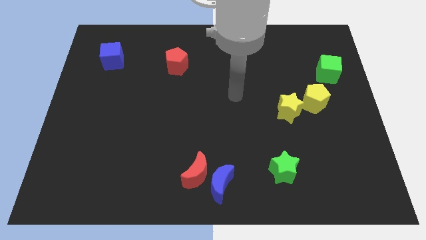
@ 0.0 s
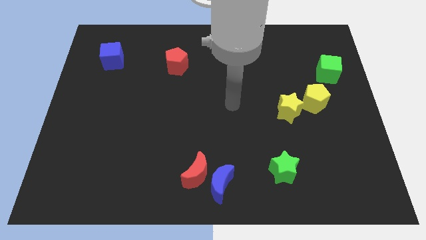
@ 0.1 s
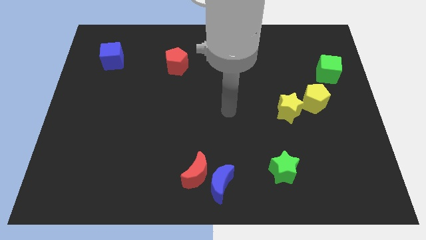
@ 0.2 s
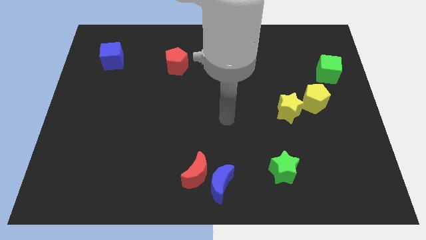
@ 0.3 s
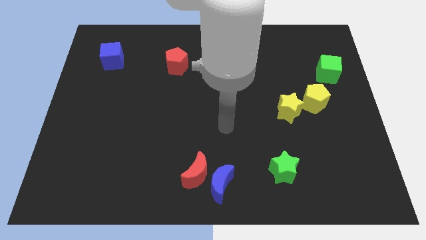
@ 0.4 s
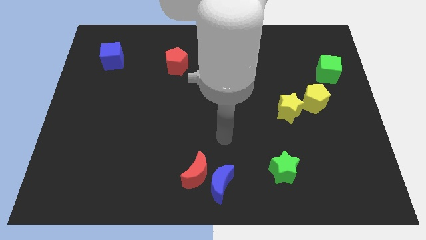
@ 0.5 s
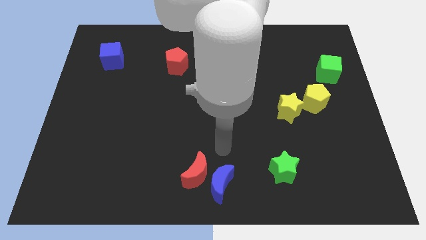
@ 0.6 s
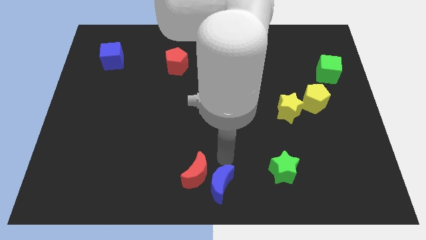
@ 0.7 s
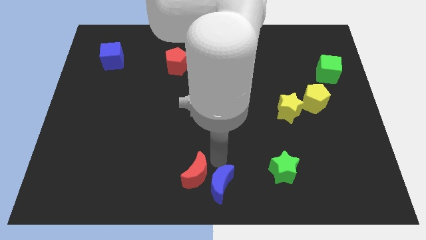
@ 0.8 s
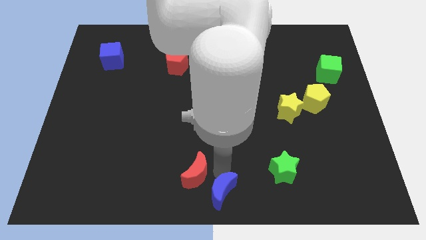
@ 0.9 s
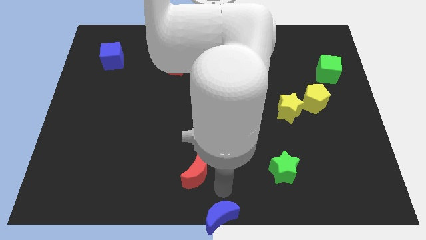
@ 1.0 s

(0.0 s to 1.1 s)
pull the red moon apart from the blue moon

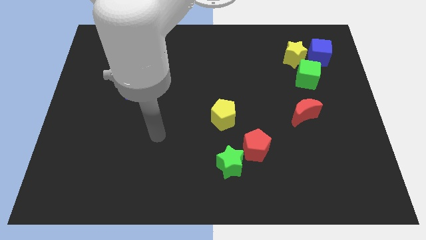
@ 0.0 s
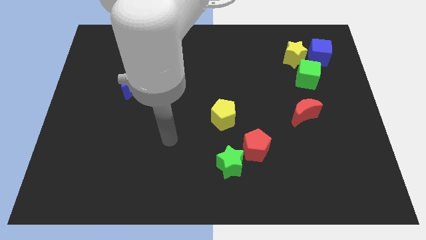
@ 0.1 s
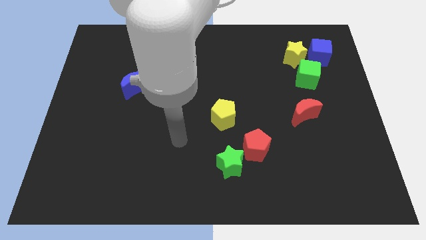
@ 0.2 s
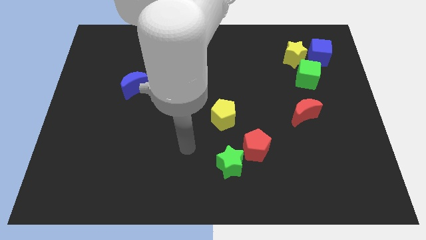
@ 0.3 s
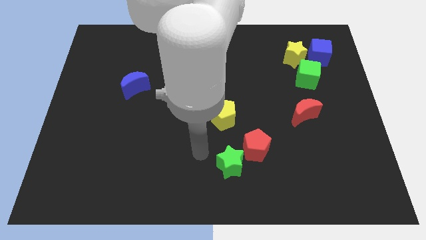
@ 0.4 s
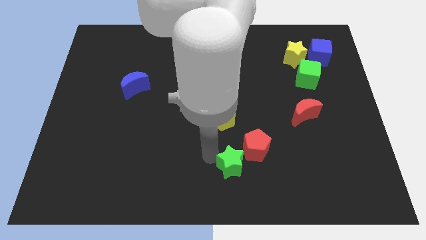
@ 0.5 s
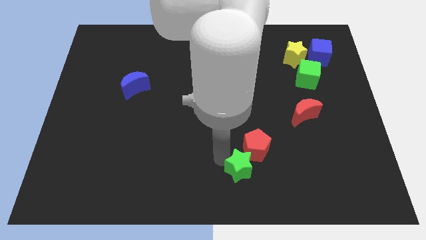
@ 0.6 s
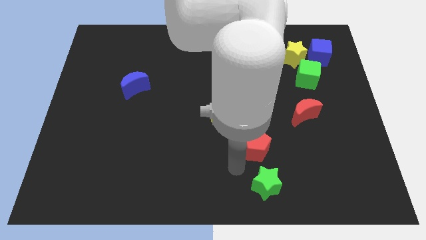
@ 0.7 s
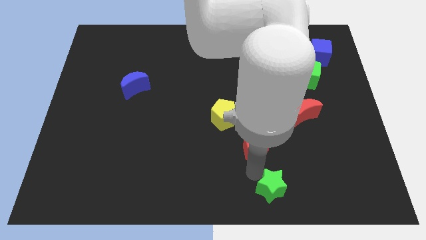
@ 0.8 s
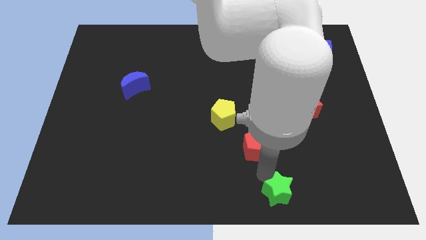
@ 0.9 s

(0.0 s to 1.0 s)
pull the red pentagon apart from the green star

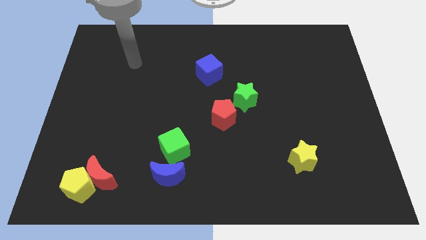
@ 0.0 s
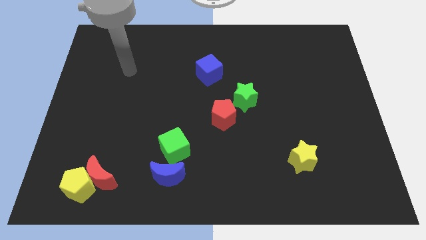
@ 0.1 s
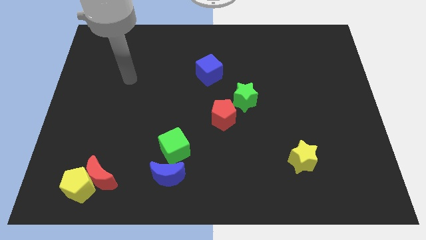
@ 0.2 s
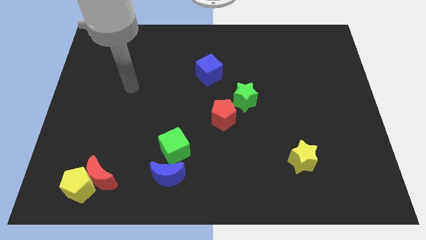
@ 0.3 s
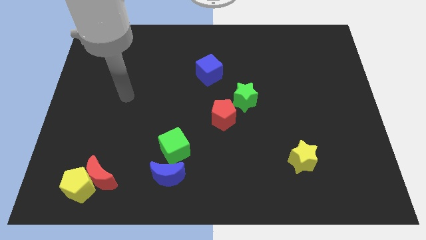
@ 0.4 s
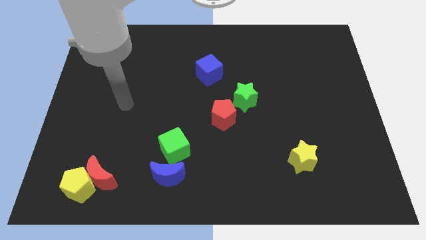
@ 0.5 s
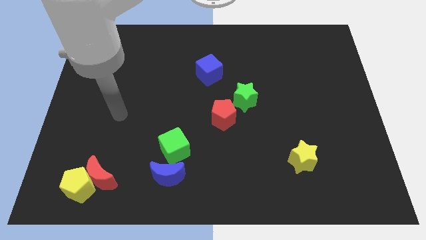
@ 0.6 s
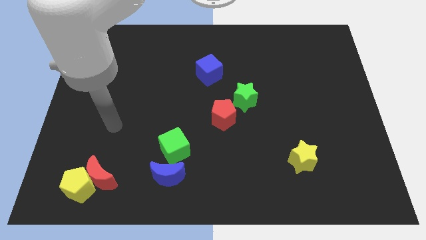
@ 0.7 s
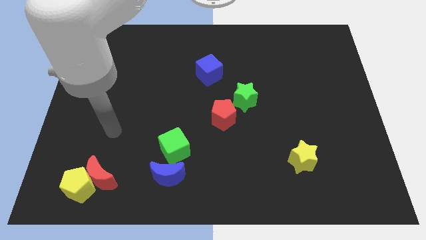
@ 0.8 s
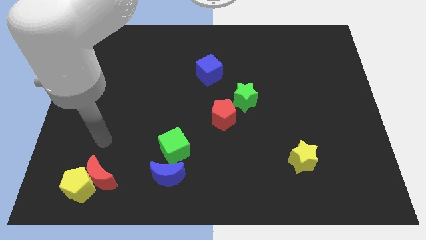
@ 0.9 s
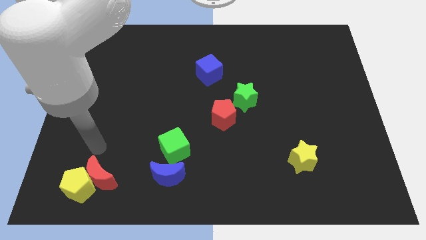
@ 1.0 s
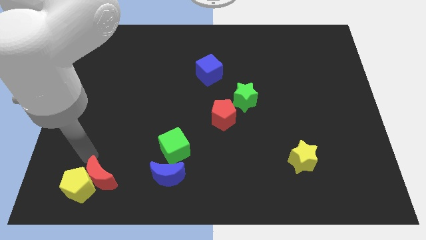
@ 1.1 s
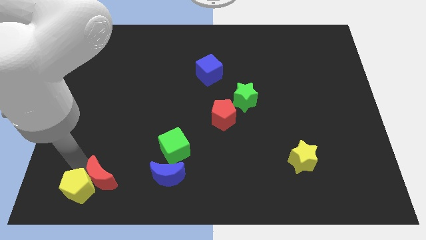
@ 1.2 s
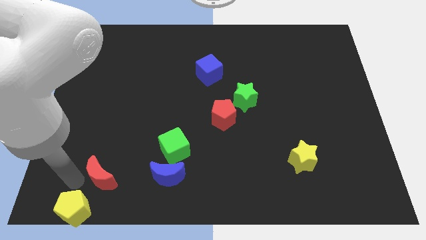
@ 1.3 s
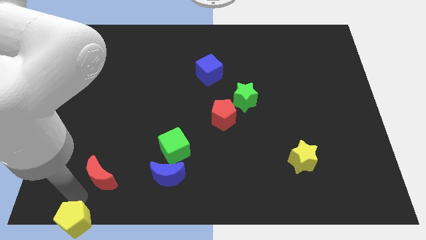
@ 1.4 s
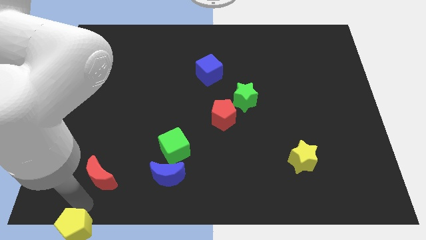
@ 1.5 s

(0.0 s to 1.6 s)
pull the red moon apart from the yellow pentagon

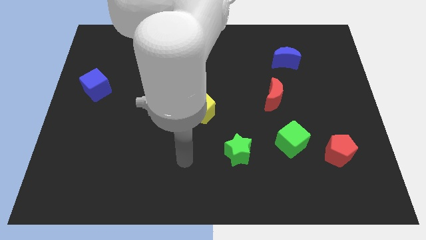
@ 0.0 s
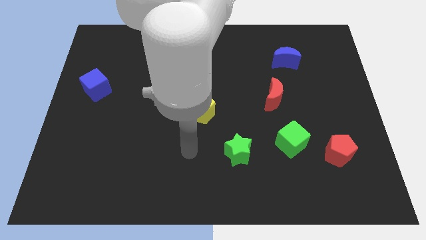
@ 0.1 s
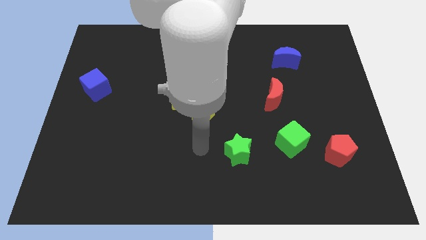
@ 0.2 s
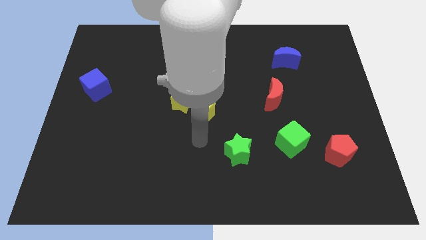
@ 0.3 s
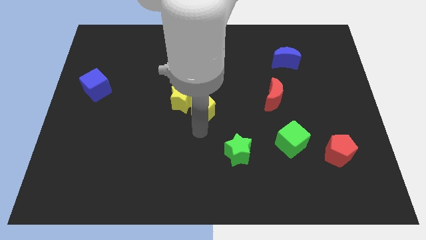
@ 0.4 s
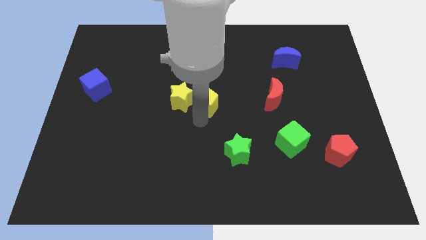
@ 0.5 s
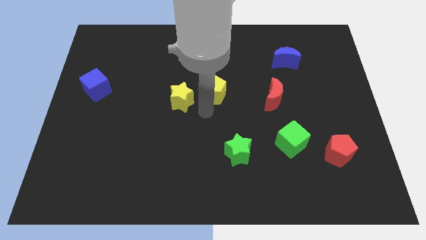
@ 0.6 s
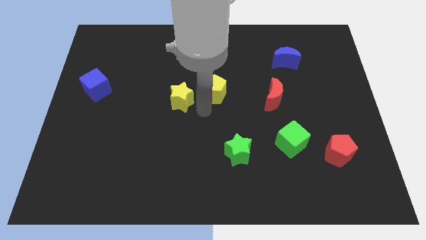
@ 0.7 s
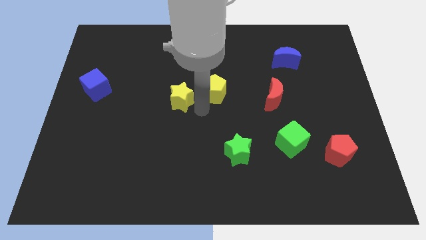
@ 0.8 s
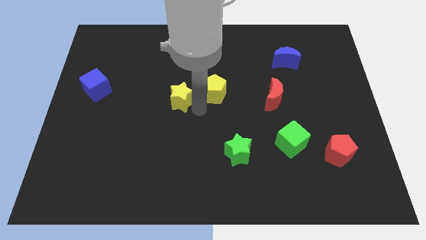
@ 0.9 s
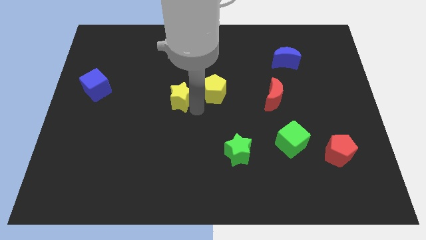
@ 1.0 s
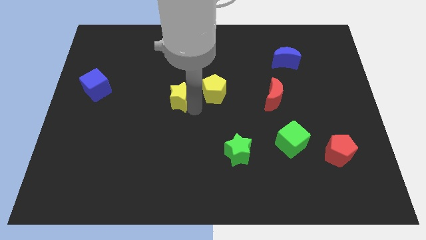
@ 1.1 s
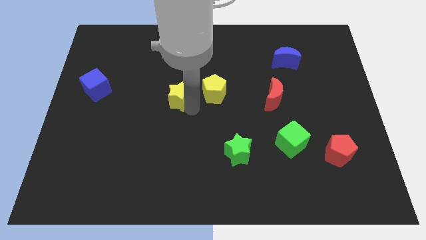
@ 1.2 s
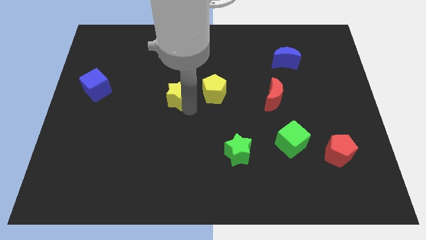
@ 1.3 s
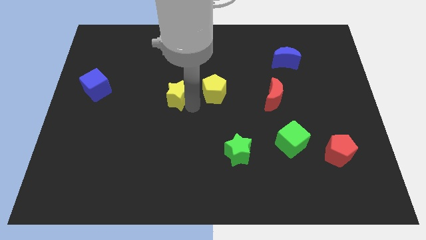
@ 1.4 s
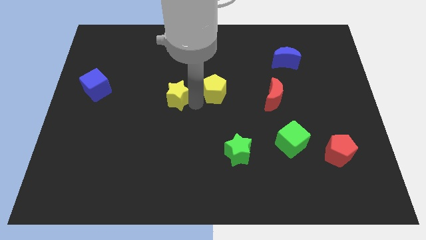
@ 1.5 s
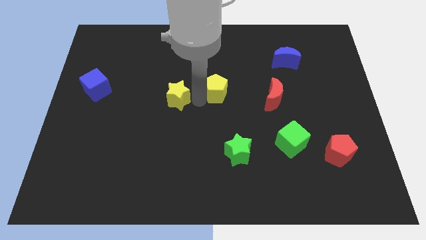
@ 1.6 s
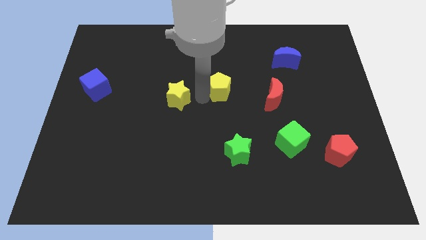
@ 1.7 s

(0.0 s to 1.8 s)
separate the yellow star from the yellow pentagon

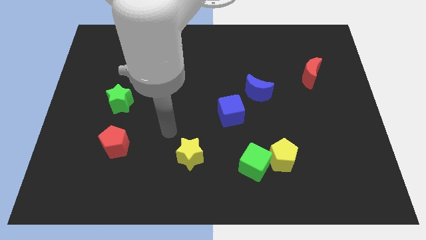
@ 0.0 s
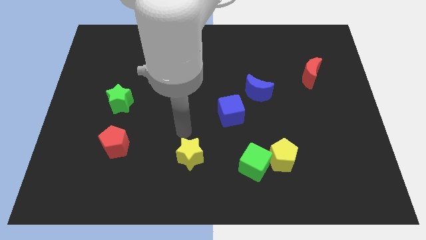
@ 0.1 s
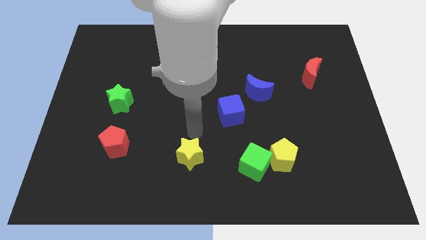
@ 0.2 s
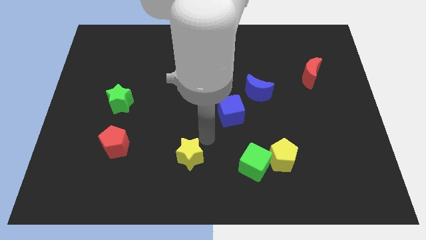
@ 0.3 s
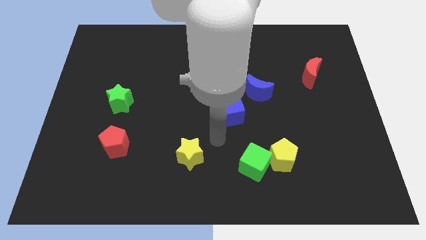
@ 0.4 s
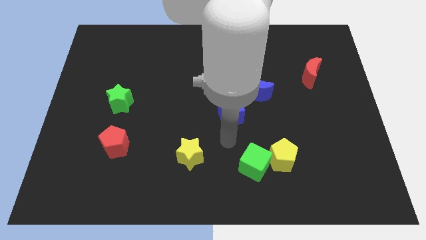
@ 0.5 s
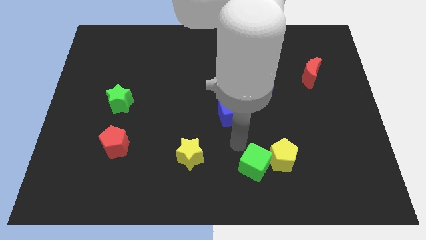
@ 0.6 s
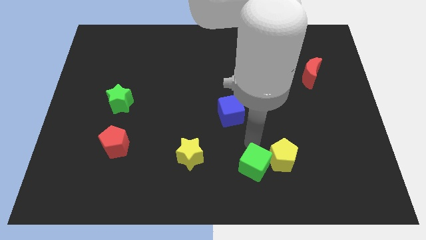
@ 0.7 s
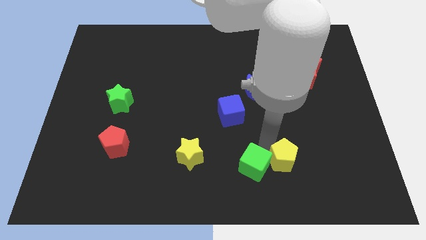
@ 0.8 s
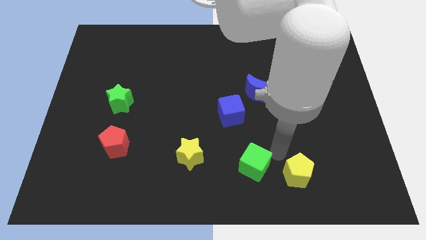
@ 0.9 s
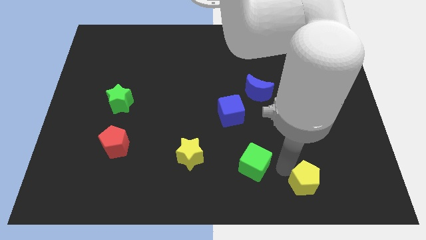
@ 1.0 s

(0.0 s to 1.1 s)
separate the green cube from the yellow pentagon

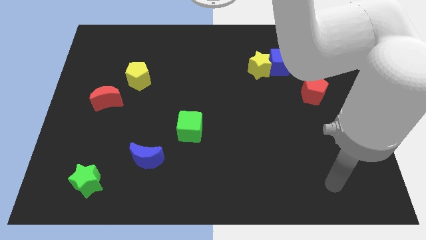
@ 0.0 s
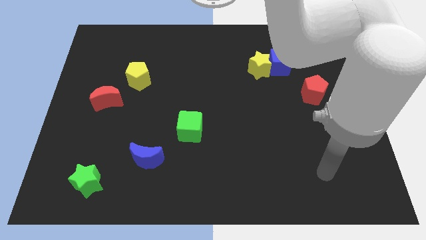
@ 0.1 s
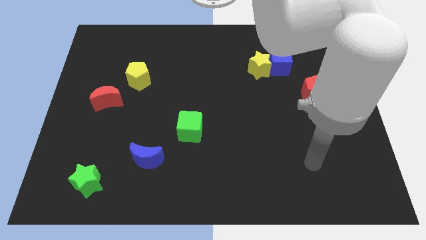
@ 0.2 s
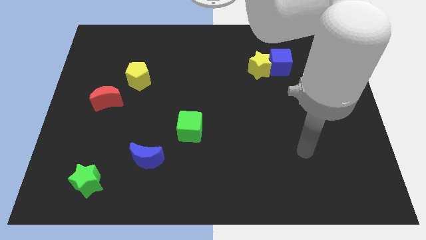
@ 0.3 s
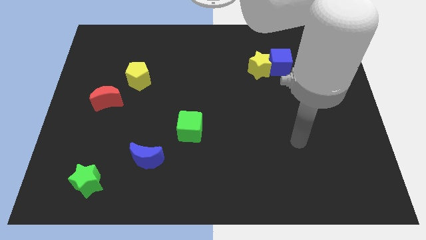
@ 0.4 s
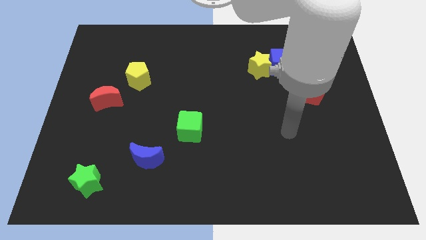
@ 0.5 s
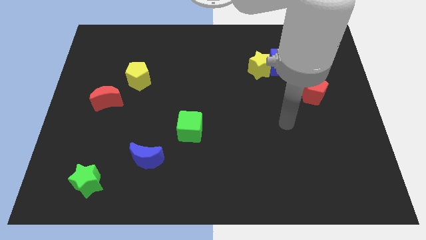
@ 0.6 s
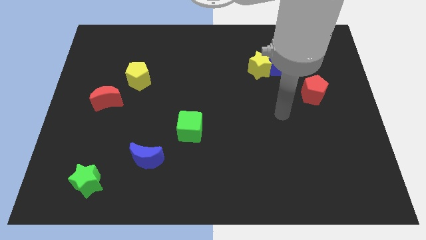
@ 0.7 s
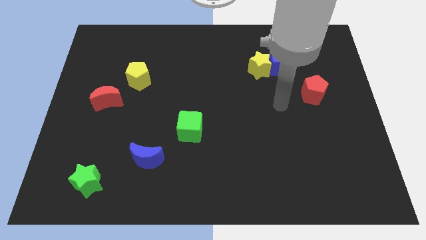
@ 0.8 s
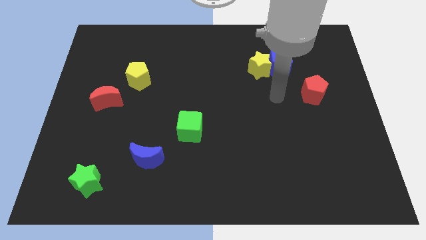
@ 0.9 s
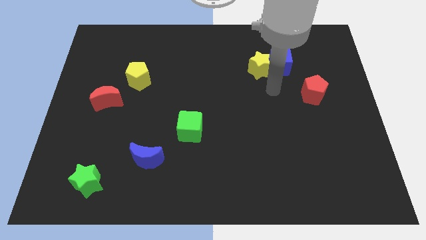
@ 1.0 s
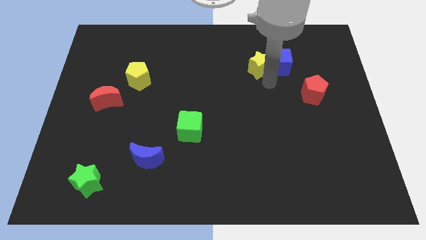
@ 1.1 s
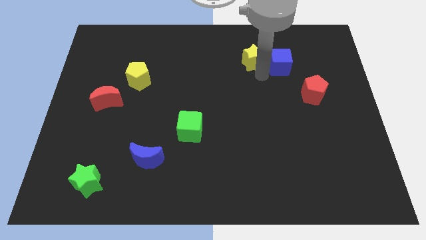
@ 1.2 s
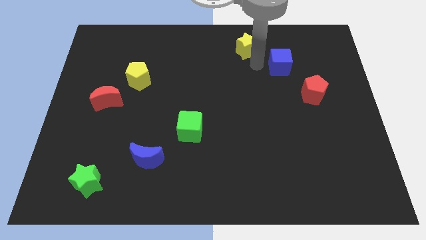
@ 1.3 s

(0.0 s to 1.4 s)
move the blue cube away from the yellow star

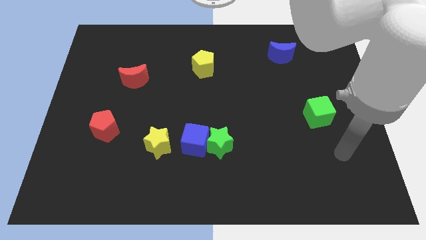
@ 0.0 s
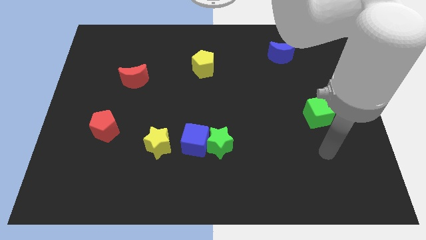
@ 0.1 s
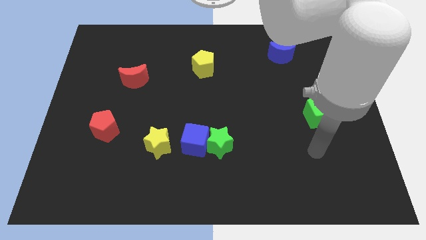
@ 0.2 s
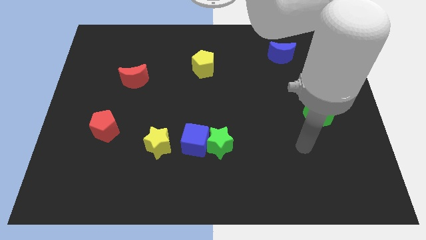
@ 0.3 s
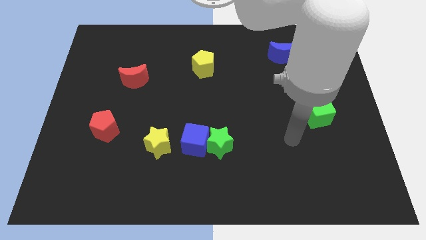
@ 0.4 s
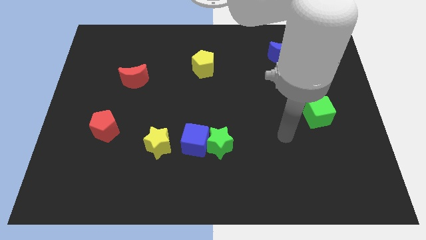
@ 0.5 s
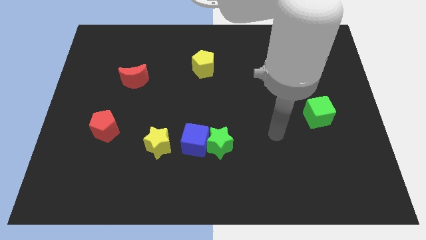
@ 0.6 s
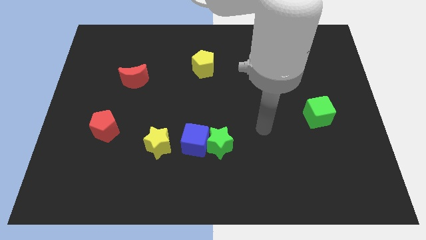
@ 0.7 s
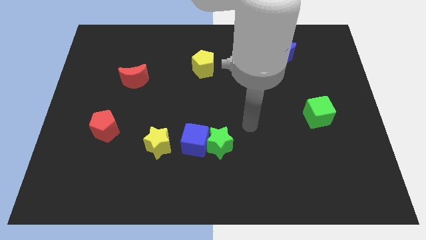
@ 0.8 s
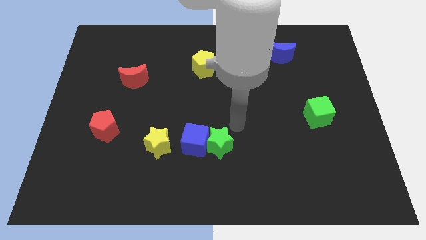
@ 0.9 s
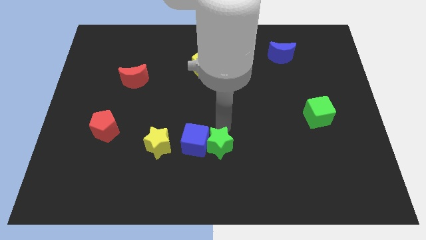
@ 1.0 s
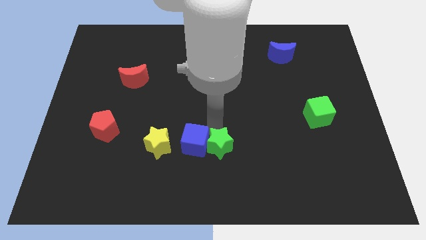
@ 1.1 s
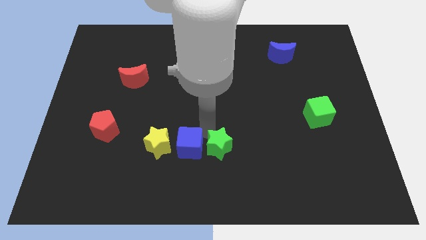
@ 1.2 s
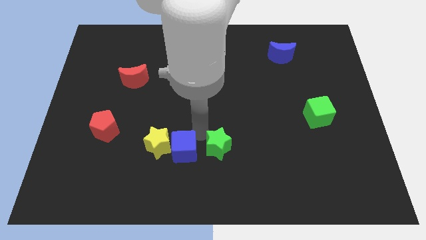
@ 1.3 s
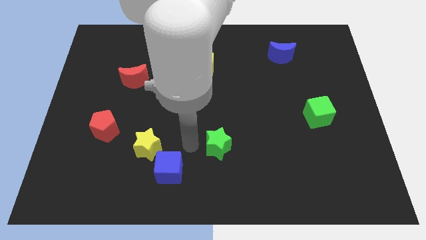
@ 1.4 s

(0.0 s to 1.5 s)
move the green star away from the blue cube
